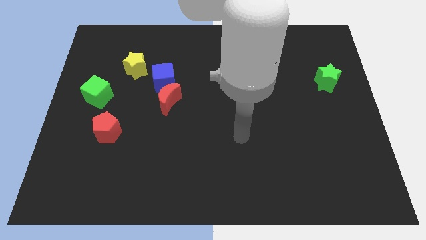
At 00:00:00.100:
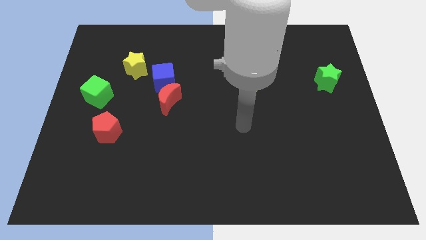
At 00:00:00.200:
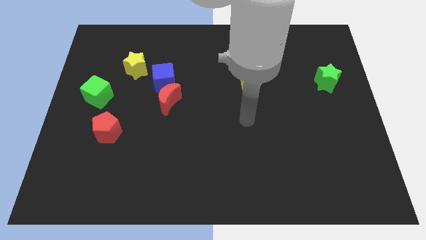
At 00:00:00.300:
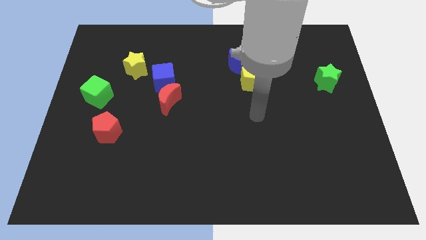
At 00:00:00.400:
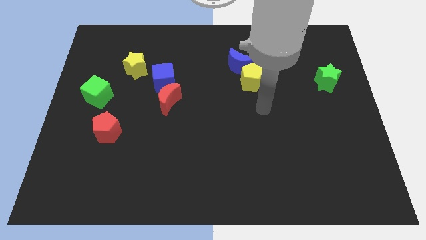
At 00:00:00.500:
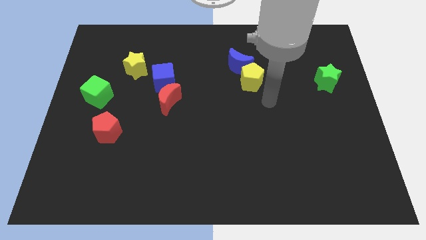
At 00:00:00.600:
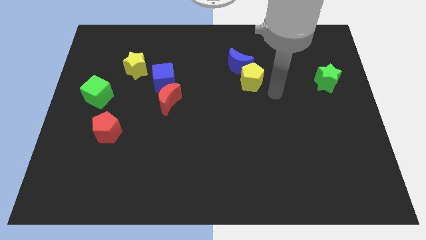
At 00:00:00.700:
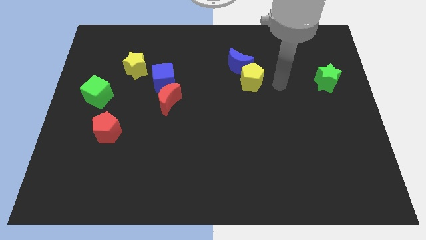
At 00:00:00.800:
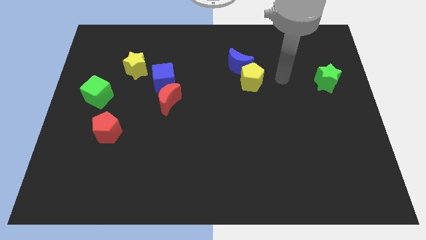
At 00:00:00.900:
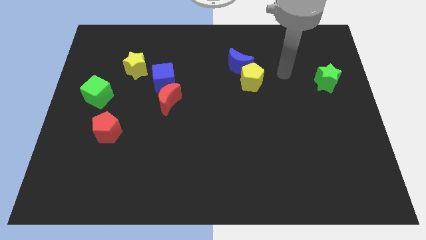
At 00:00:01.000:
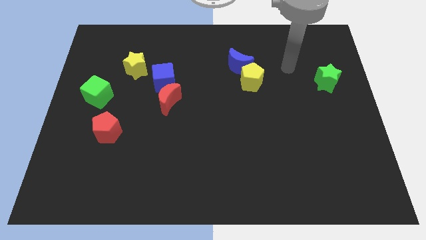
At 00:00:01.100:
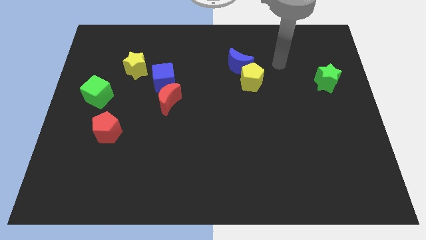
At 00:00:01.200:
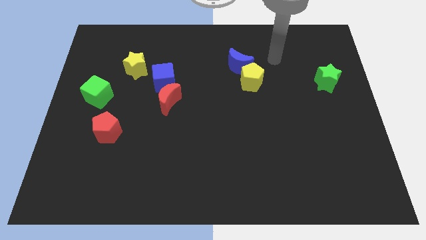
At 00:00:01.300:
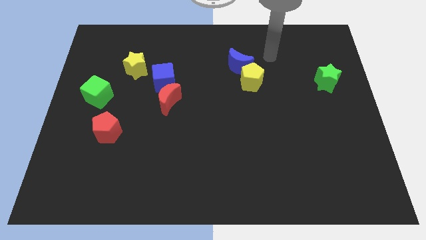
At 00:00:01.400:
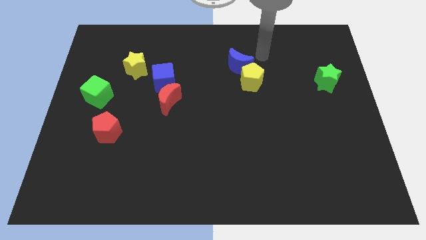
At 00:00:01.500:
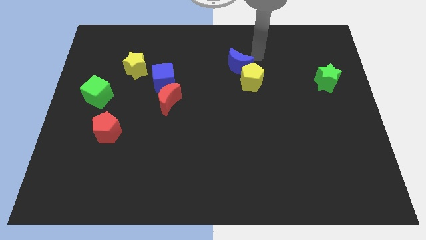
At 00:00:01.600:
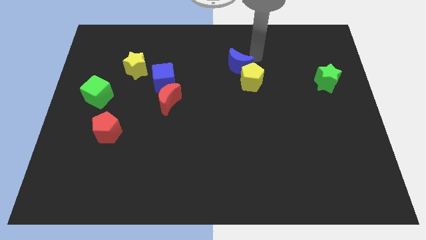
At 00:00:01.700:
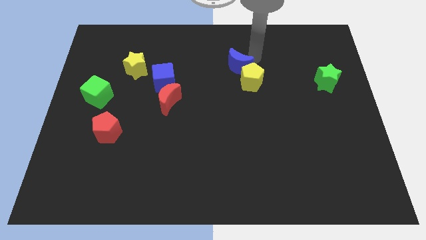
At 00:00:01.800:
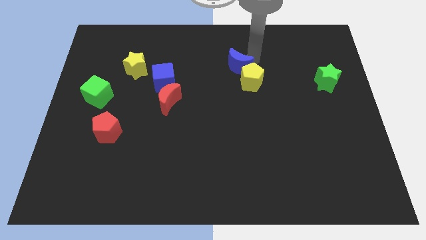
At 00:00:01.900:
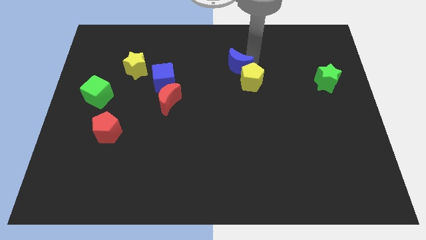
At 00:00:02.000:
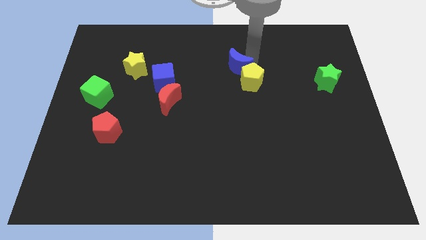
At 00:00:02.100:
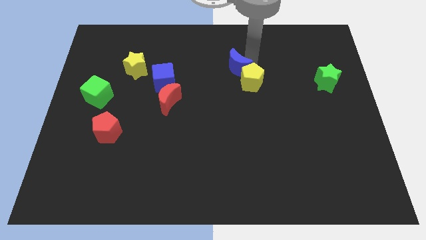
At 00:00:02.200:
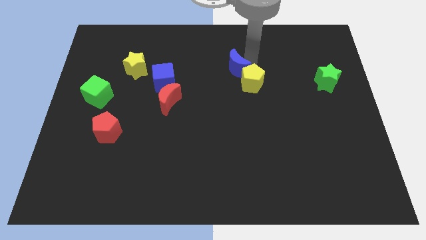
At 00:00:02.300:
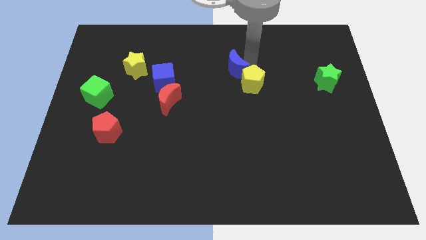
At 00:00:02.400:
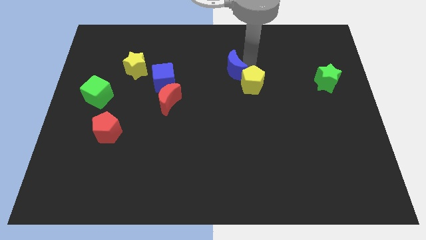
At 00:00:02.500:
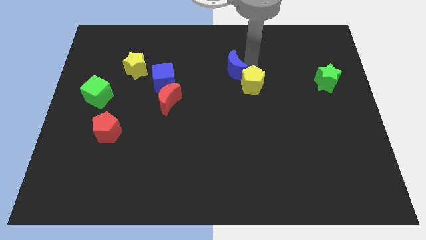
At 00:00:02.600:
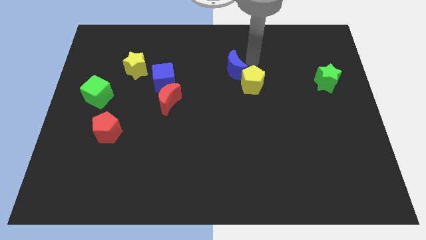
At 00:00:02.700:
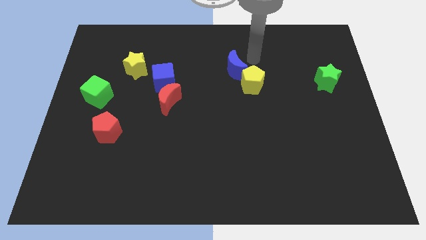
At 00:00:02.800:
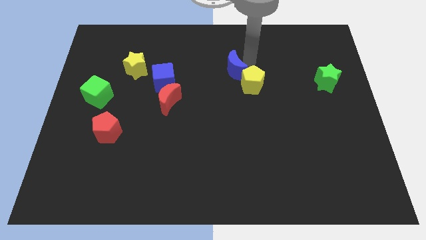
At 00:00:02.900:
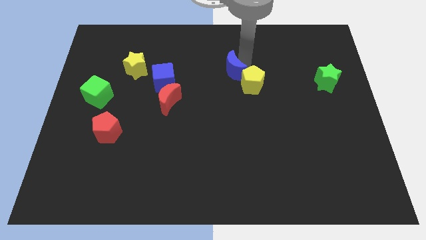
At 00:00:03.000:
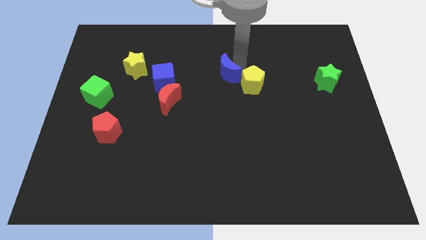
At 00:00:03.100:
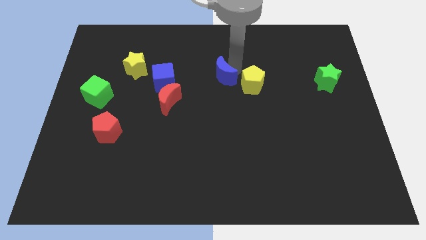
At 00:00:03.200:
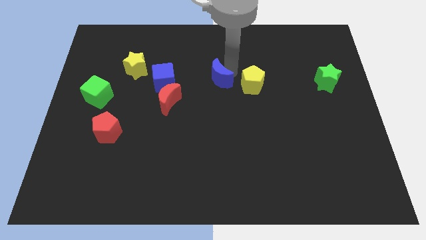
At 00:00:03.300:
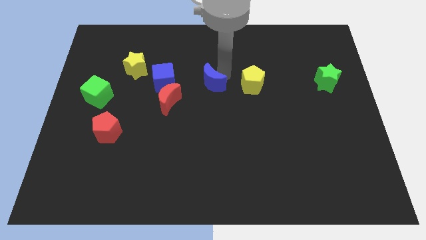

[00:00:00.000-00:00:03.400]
slightly slide the blue moon down and left diagonally

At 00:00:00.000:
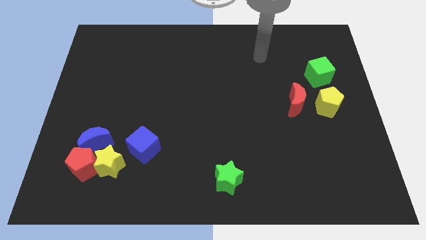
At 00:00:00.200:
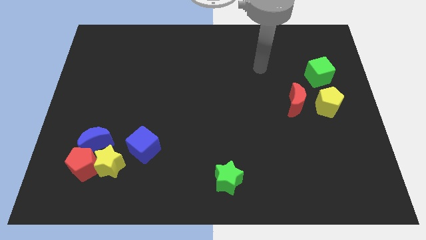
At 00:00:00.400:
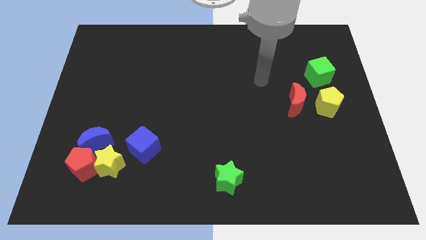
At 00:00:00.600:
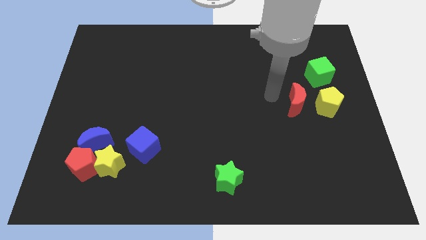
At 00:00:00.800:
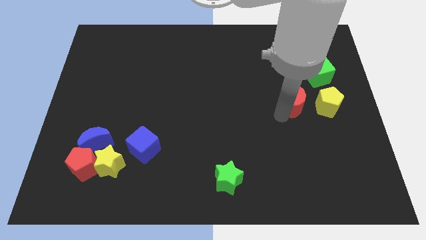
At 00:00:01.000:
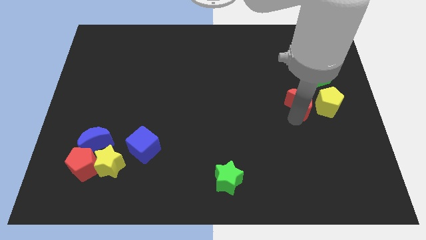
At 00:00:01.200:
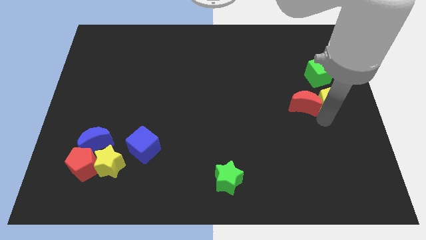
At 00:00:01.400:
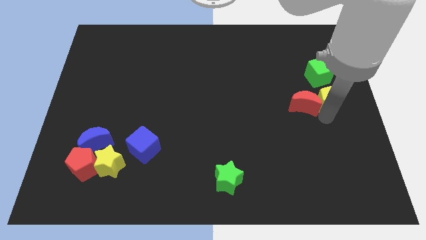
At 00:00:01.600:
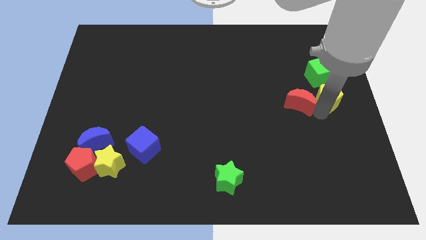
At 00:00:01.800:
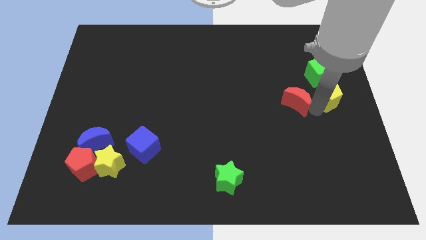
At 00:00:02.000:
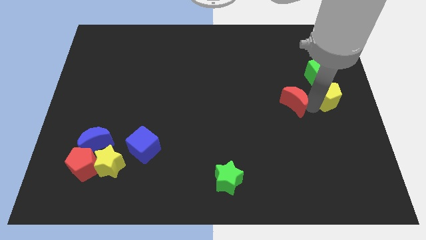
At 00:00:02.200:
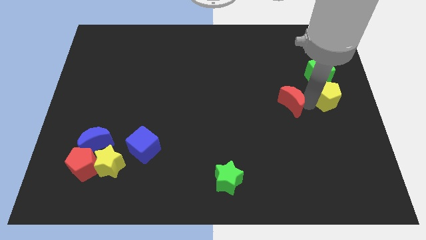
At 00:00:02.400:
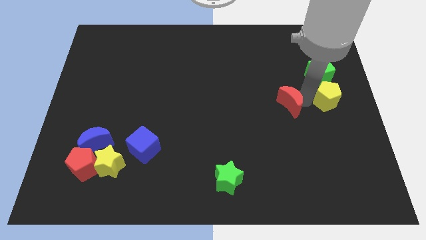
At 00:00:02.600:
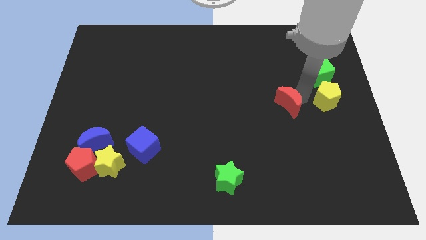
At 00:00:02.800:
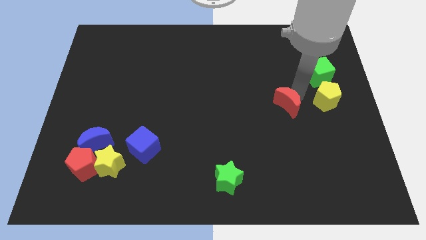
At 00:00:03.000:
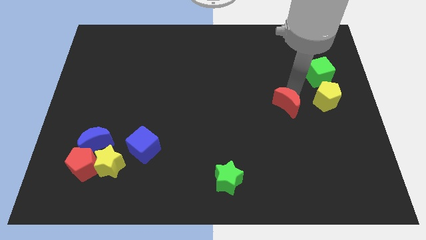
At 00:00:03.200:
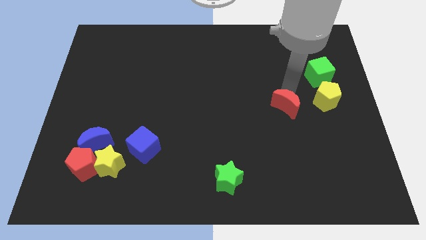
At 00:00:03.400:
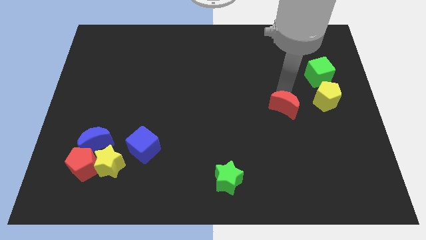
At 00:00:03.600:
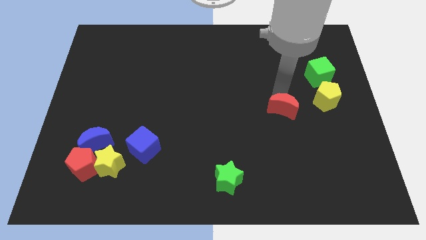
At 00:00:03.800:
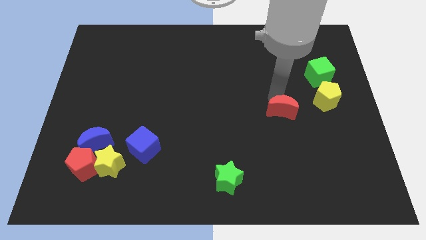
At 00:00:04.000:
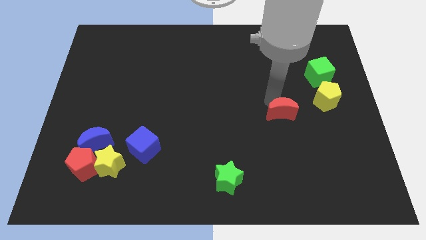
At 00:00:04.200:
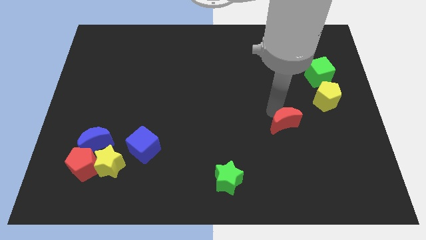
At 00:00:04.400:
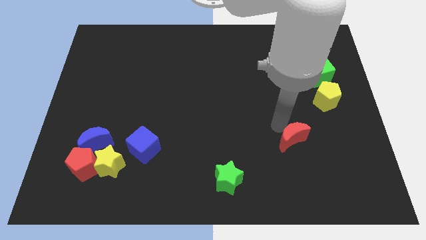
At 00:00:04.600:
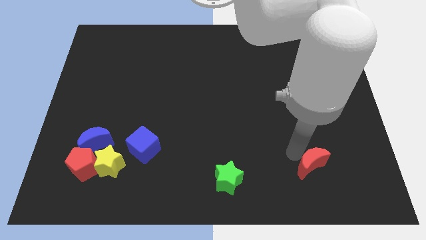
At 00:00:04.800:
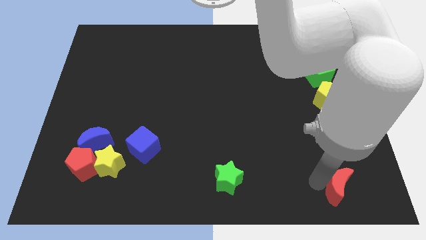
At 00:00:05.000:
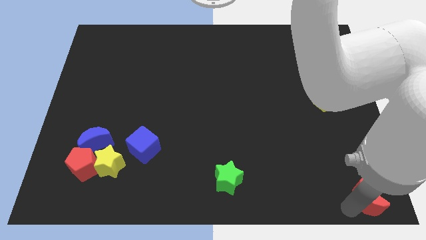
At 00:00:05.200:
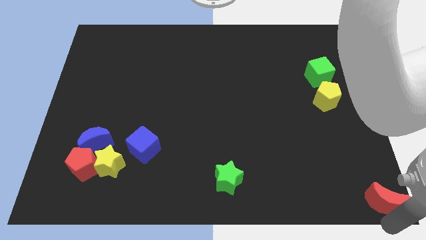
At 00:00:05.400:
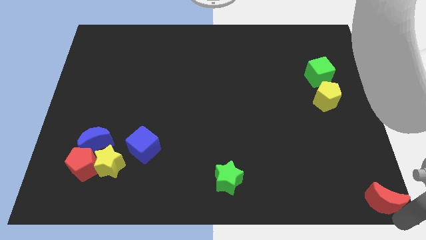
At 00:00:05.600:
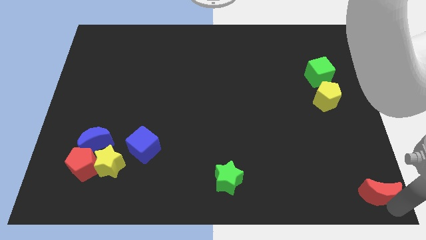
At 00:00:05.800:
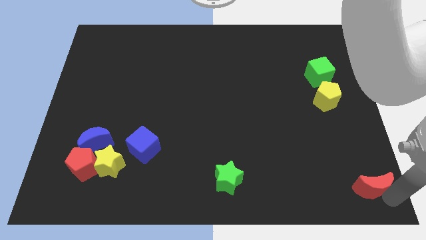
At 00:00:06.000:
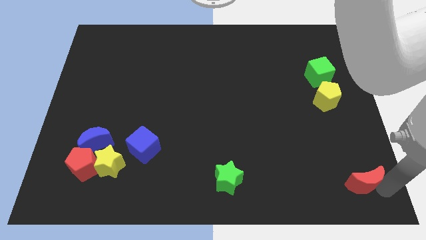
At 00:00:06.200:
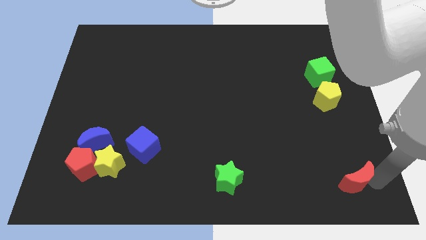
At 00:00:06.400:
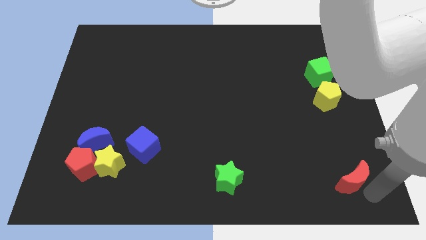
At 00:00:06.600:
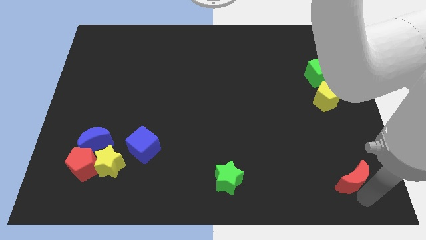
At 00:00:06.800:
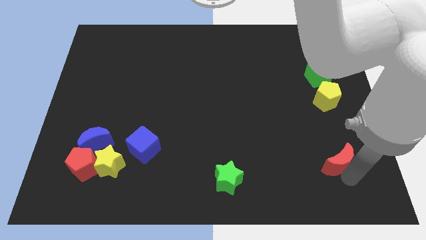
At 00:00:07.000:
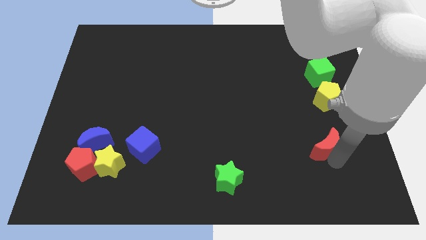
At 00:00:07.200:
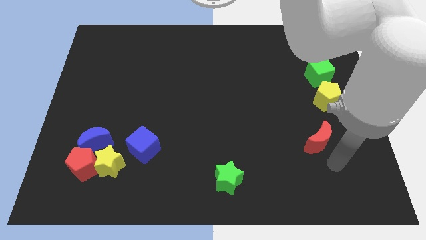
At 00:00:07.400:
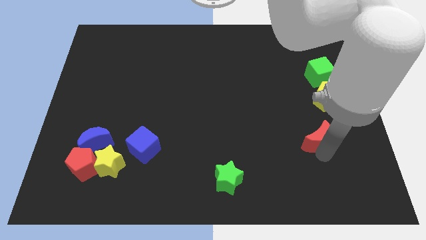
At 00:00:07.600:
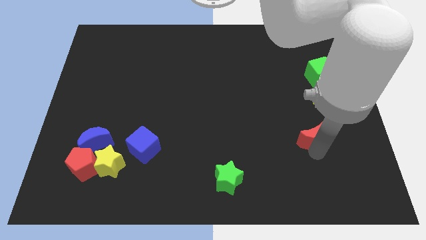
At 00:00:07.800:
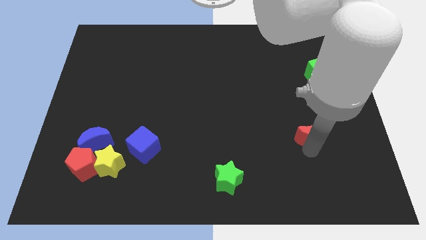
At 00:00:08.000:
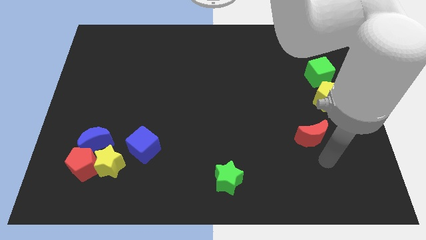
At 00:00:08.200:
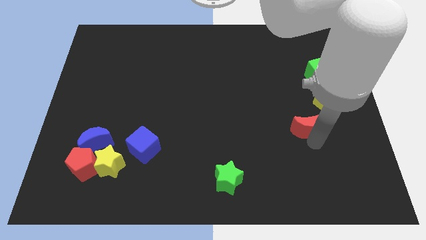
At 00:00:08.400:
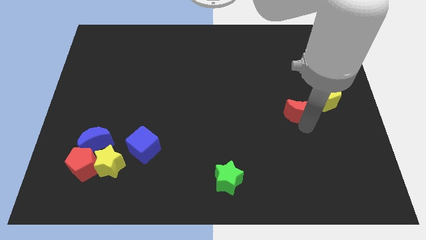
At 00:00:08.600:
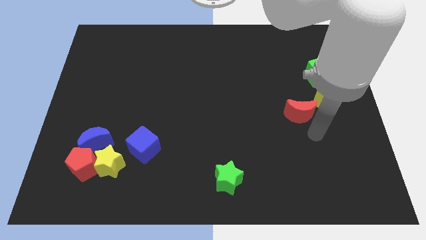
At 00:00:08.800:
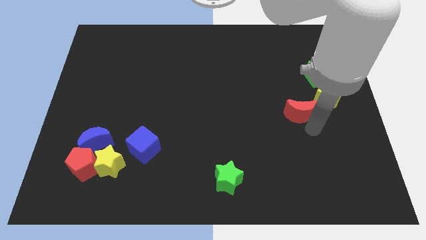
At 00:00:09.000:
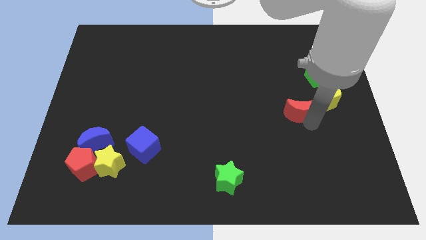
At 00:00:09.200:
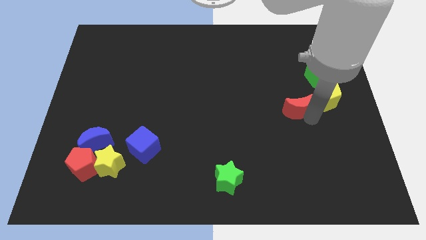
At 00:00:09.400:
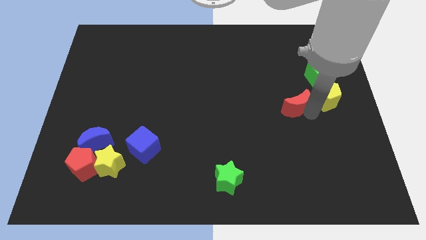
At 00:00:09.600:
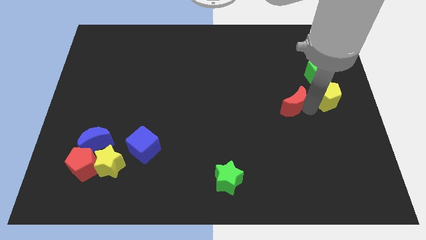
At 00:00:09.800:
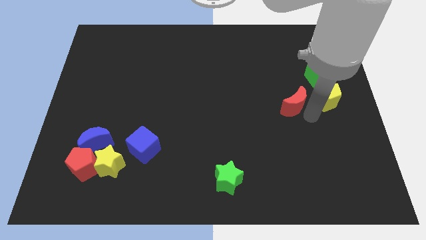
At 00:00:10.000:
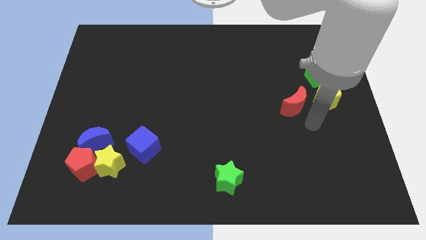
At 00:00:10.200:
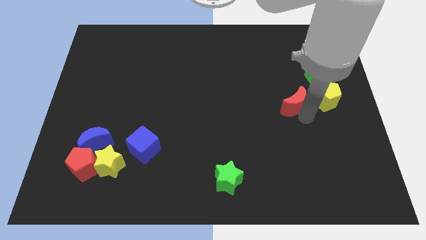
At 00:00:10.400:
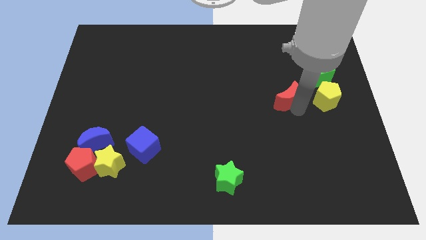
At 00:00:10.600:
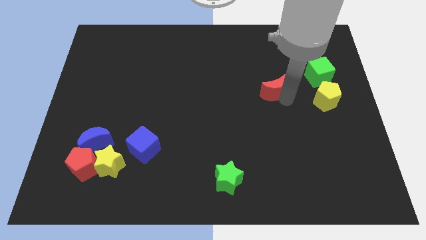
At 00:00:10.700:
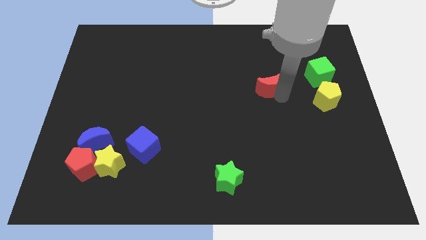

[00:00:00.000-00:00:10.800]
slightly push the red moon up and then left
